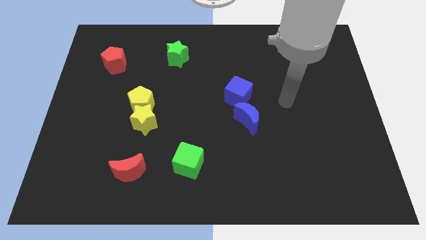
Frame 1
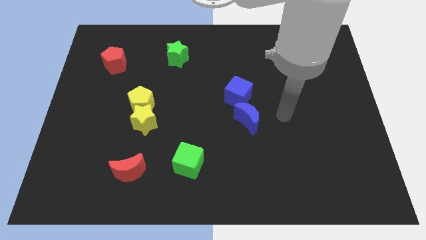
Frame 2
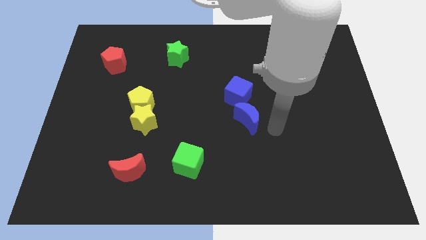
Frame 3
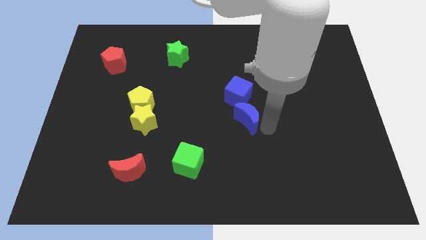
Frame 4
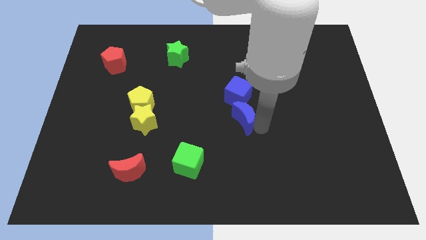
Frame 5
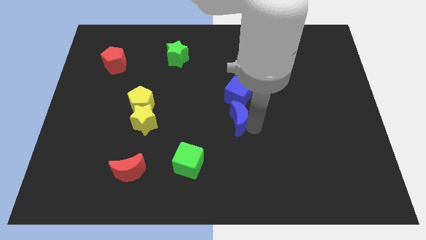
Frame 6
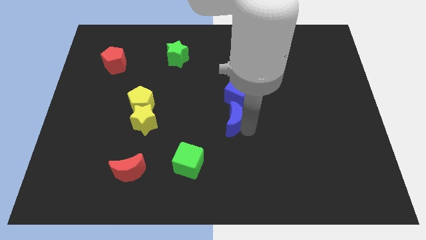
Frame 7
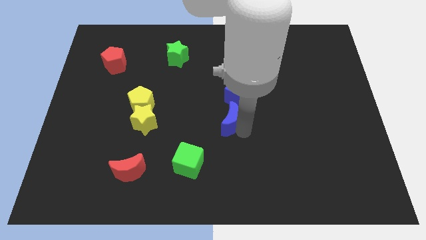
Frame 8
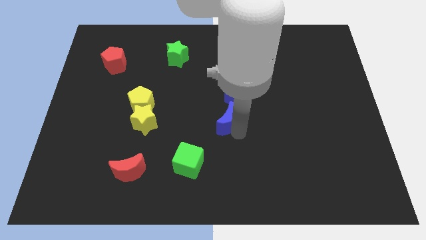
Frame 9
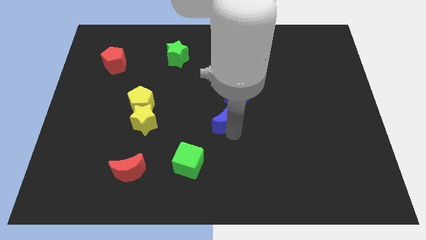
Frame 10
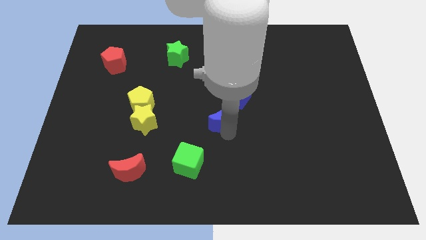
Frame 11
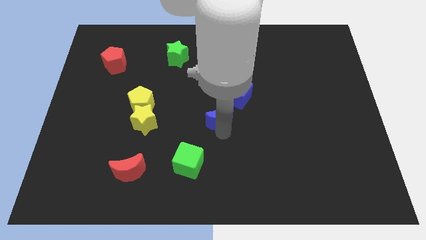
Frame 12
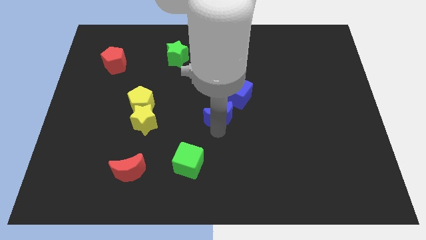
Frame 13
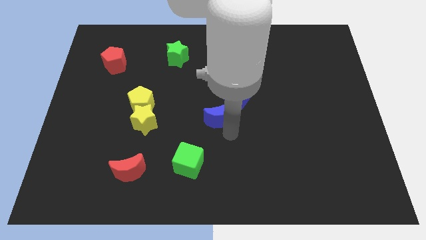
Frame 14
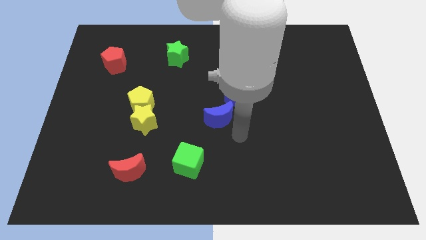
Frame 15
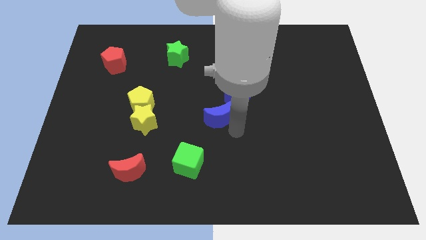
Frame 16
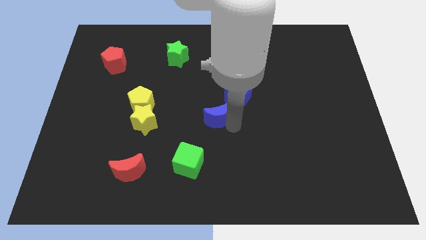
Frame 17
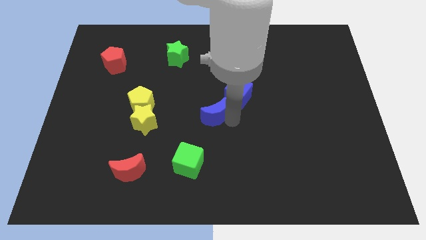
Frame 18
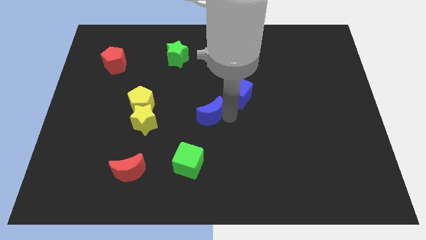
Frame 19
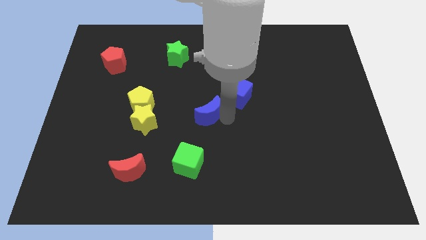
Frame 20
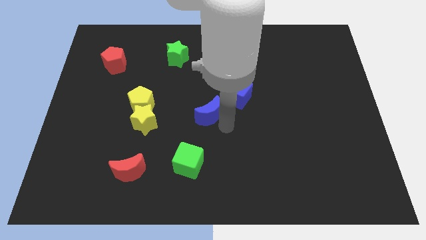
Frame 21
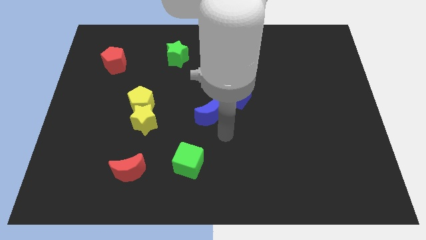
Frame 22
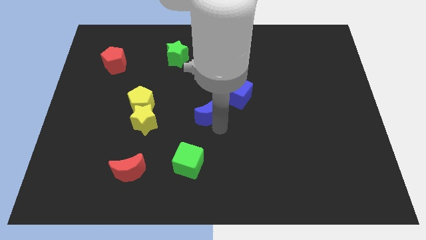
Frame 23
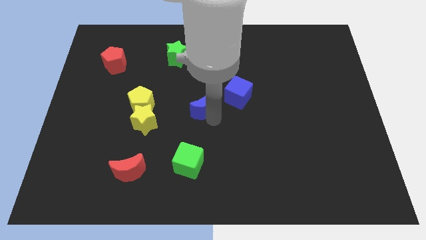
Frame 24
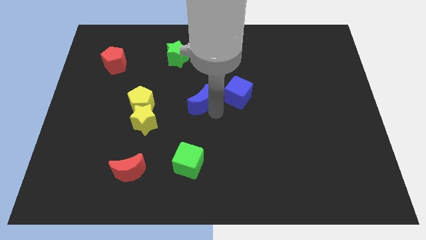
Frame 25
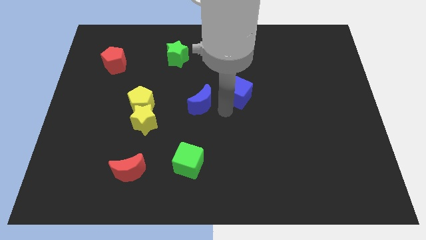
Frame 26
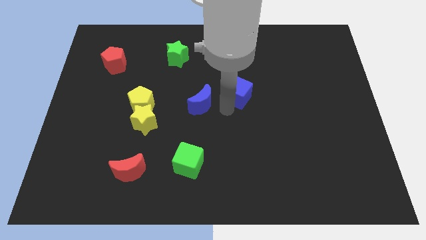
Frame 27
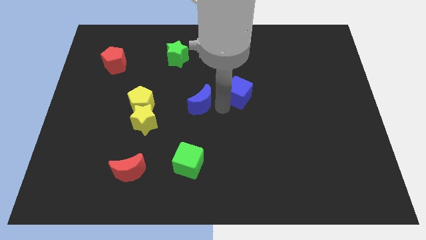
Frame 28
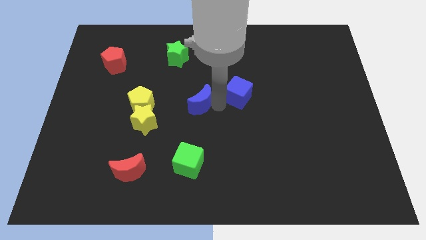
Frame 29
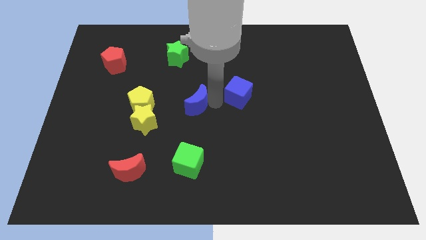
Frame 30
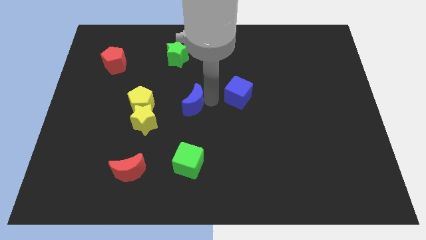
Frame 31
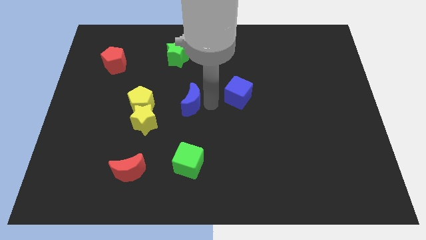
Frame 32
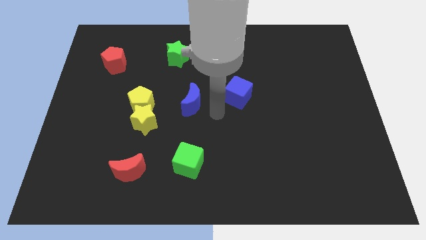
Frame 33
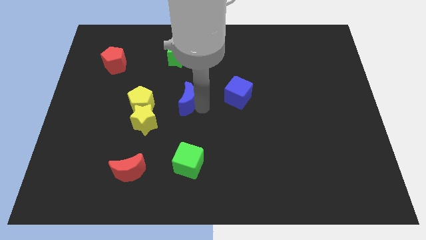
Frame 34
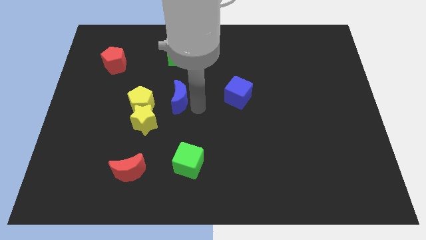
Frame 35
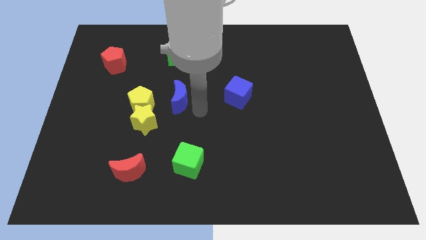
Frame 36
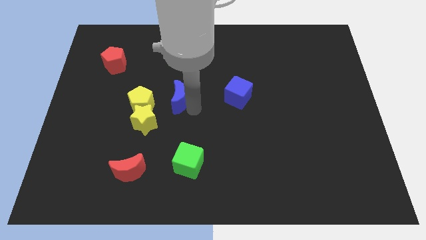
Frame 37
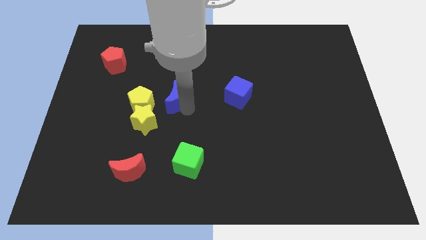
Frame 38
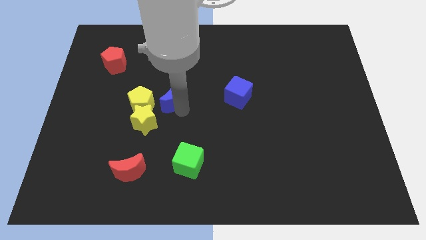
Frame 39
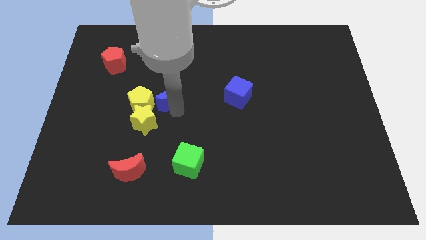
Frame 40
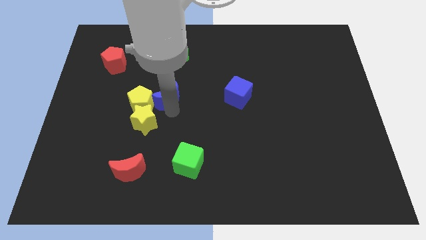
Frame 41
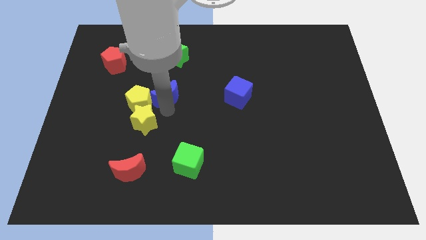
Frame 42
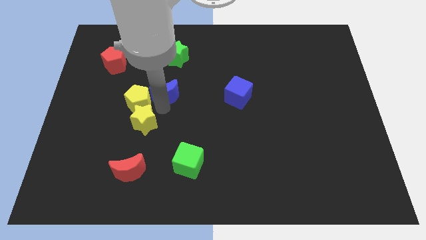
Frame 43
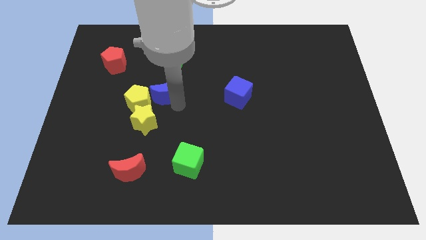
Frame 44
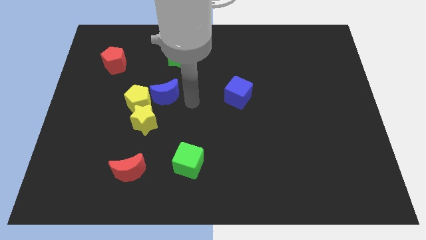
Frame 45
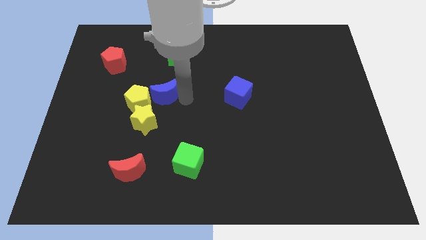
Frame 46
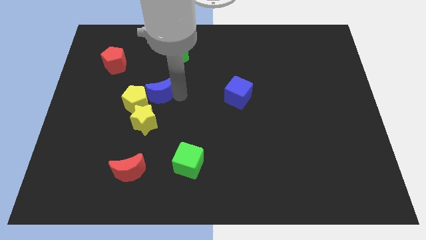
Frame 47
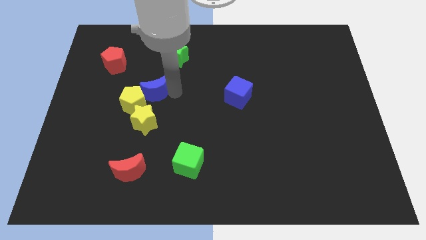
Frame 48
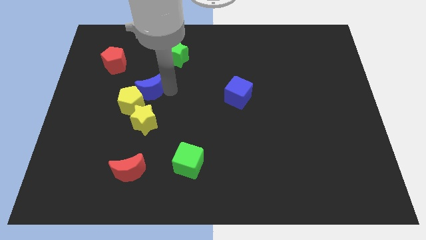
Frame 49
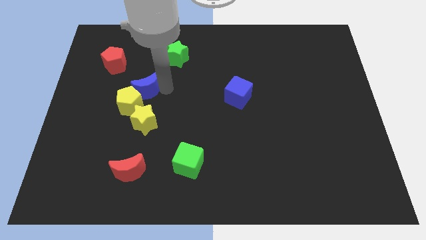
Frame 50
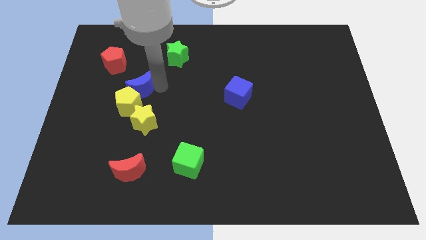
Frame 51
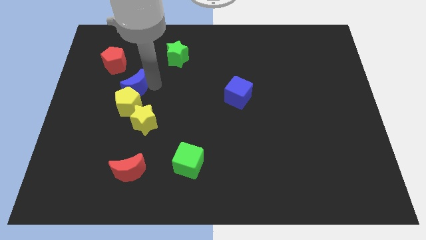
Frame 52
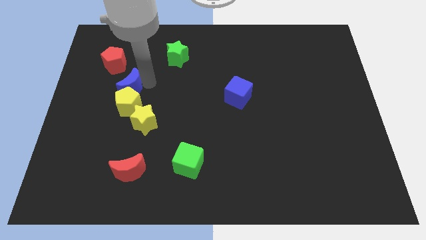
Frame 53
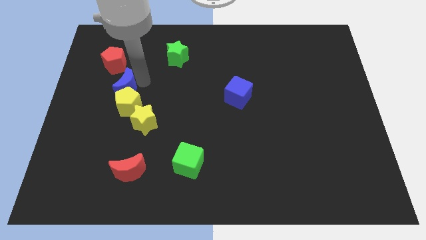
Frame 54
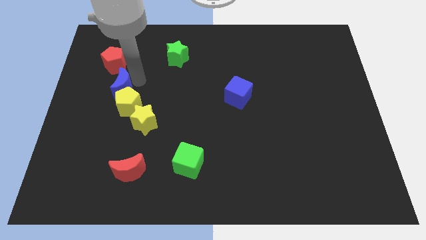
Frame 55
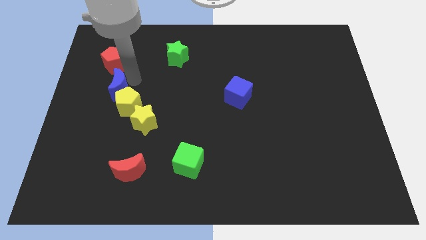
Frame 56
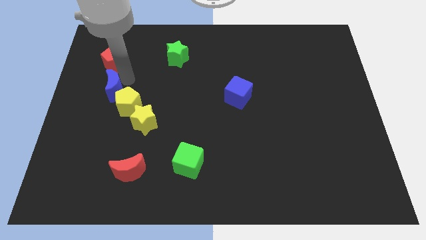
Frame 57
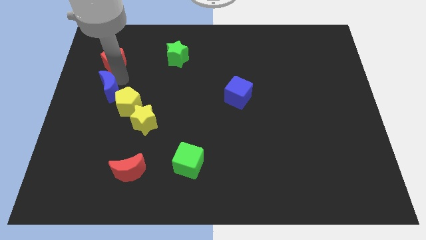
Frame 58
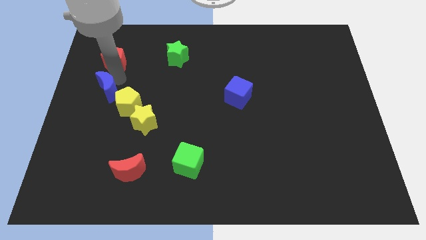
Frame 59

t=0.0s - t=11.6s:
put the blue moon to the center left

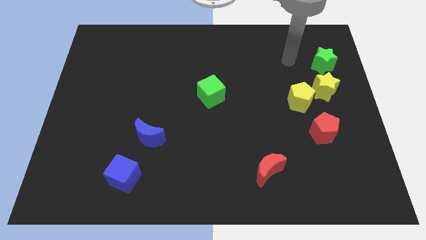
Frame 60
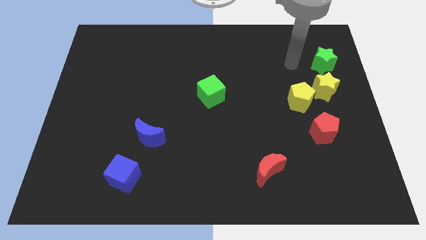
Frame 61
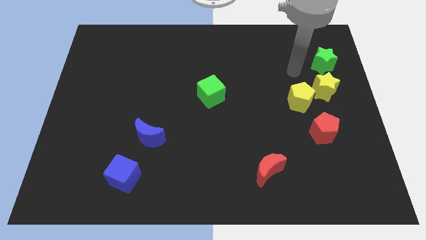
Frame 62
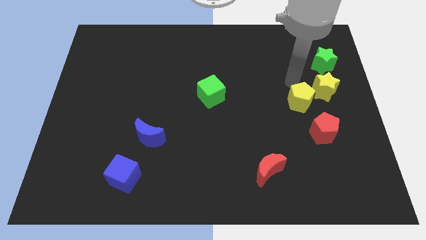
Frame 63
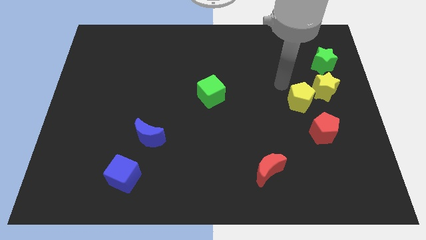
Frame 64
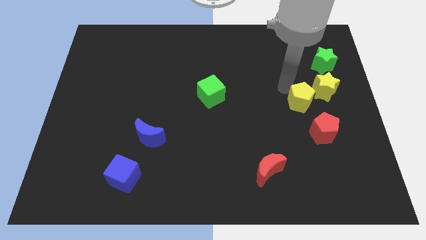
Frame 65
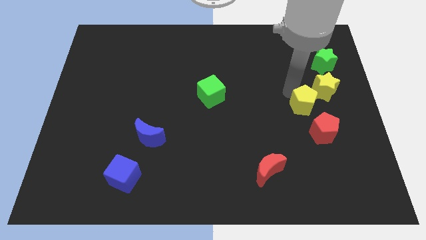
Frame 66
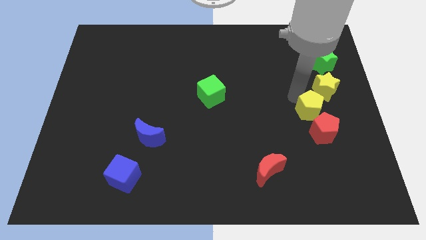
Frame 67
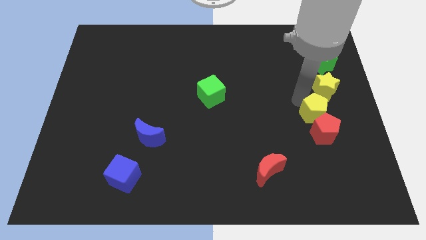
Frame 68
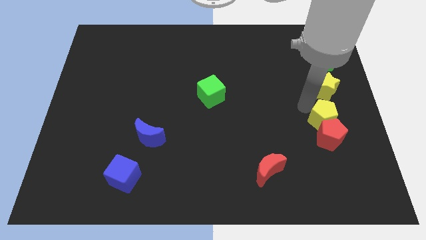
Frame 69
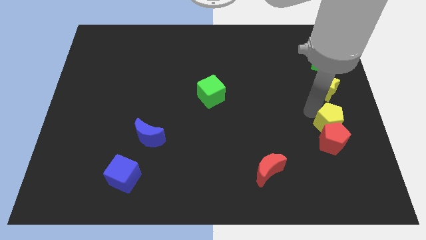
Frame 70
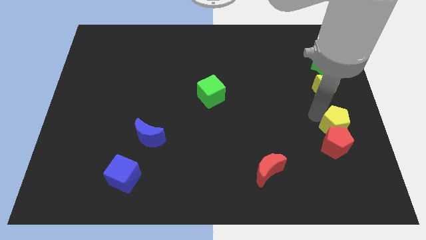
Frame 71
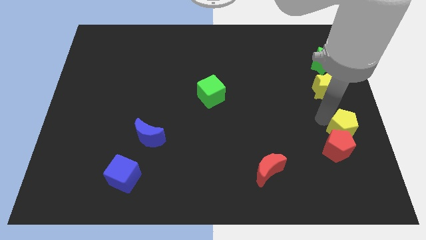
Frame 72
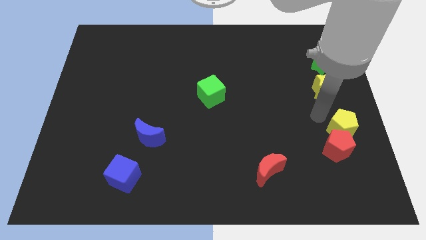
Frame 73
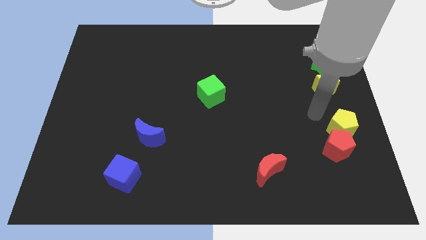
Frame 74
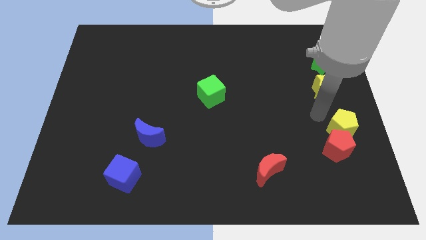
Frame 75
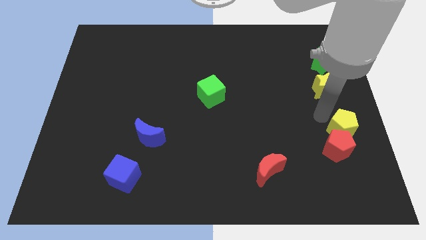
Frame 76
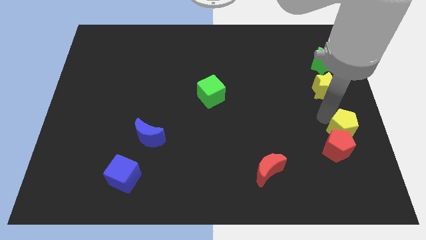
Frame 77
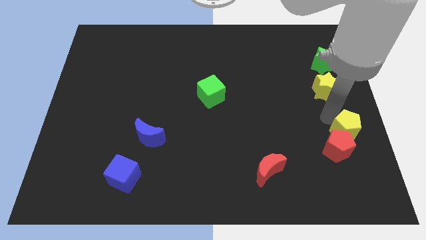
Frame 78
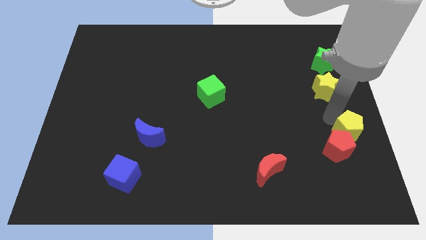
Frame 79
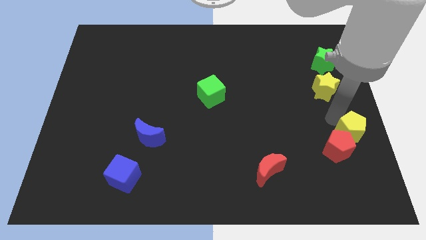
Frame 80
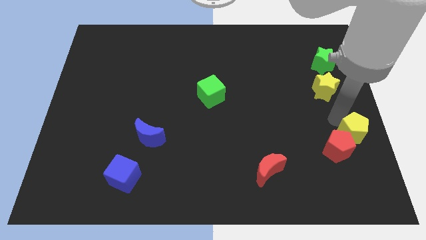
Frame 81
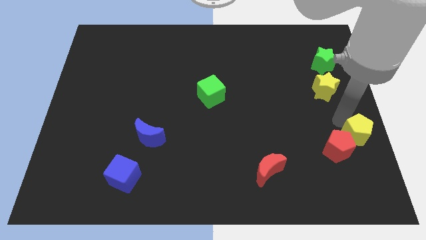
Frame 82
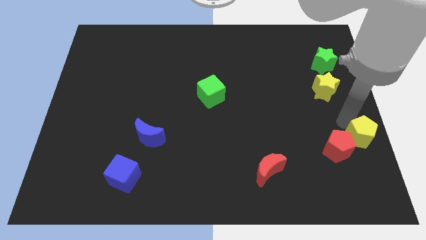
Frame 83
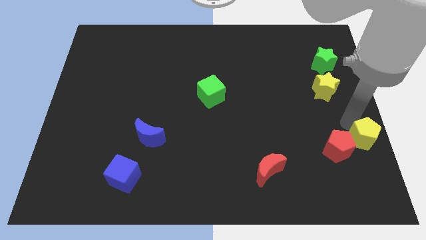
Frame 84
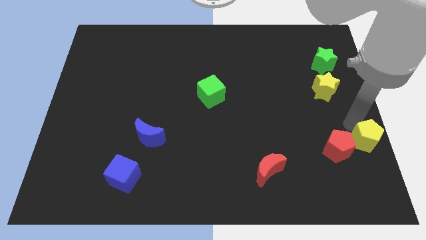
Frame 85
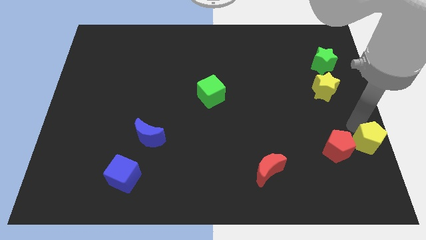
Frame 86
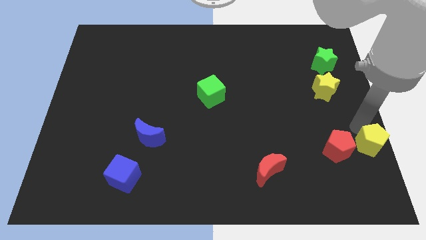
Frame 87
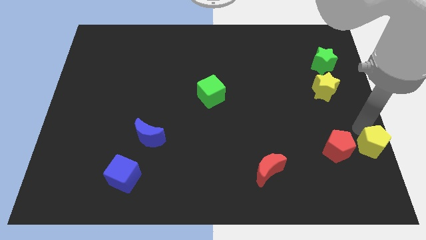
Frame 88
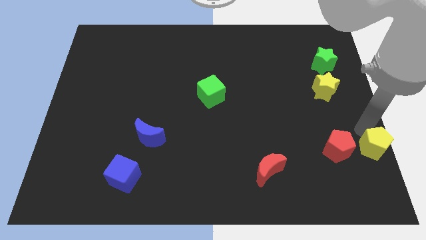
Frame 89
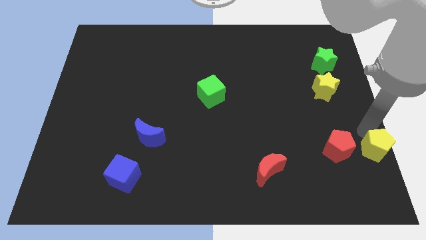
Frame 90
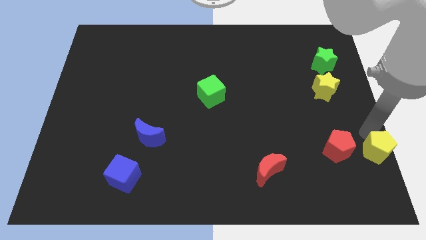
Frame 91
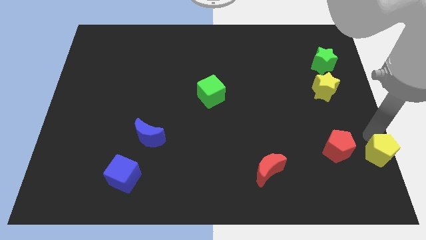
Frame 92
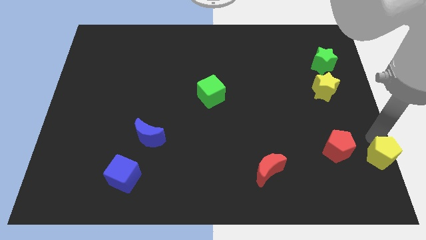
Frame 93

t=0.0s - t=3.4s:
put the yellow pentagon to the bottom right
